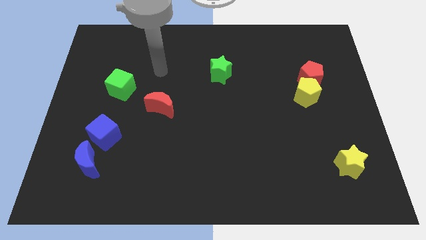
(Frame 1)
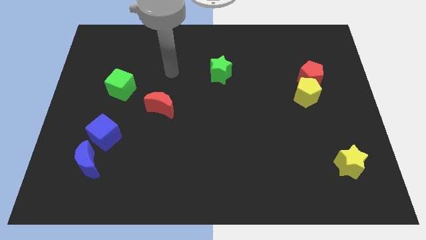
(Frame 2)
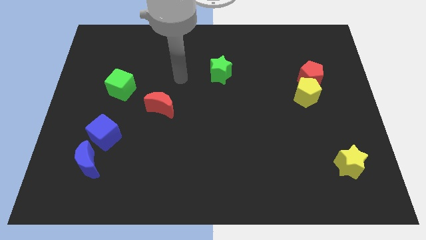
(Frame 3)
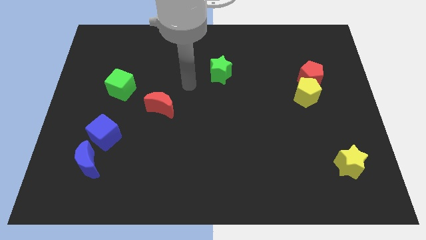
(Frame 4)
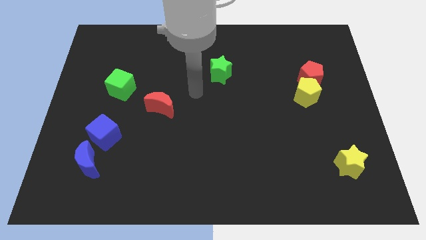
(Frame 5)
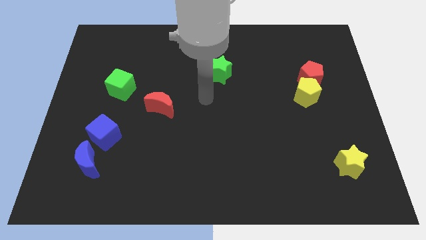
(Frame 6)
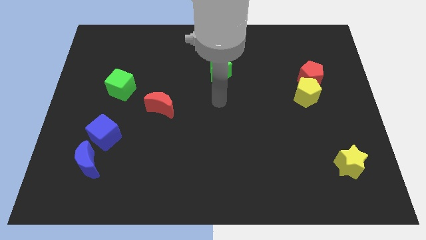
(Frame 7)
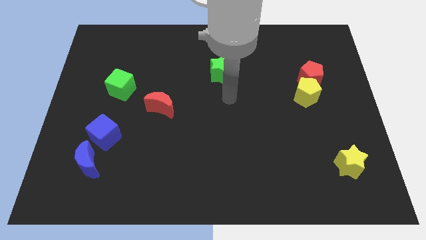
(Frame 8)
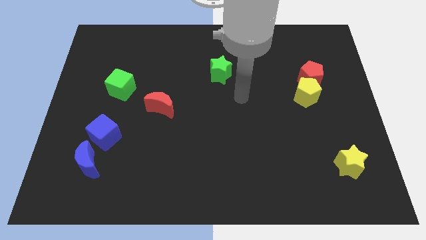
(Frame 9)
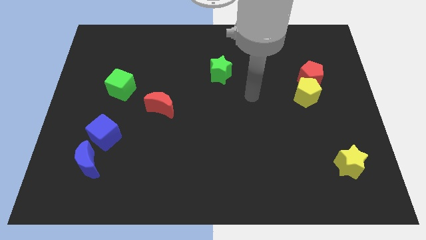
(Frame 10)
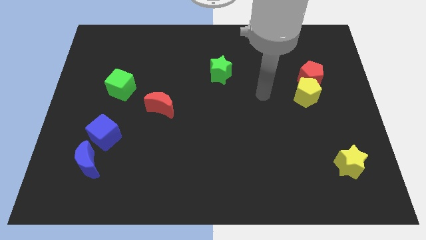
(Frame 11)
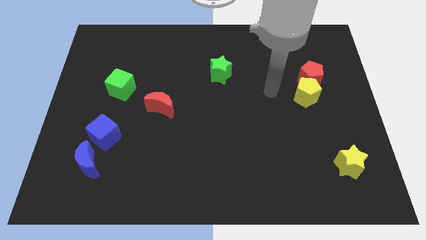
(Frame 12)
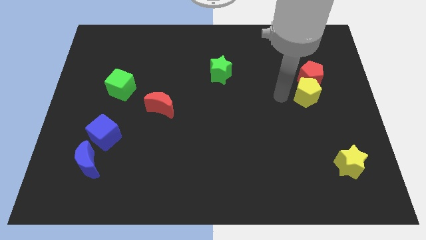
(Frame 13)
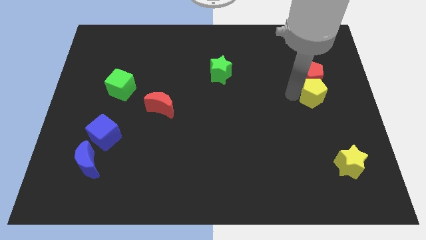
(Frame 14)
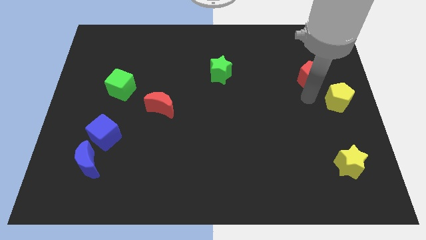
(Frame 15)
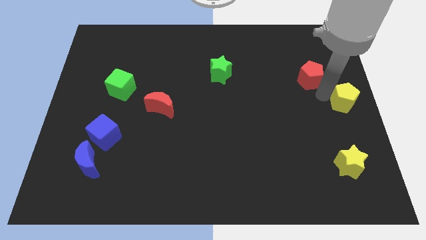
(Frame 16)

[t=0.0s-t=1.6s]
move the red pentagon away from the yellow pentagon

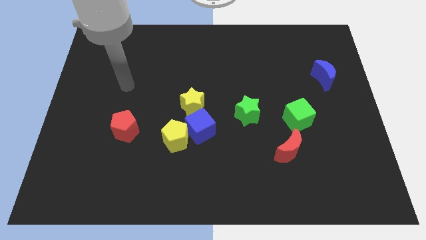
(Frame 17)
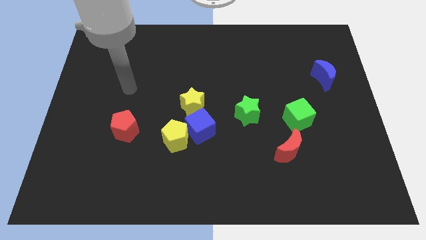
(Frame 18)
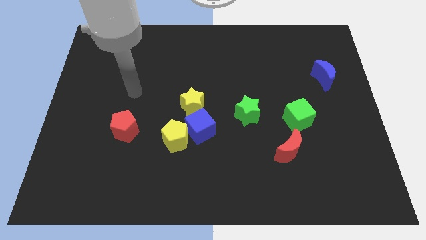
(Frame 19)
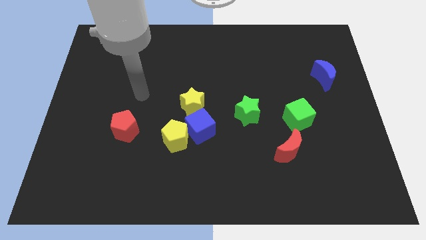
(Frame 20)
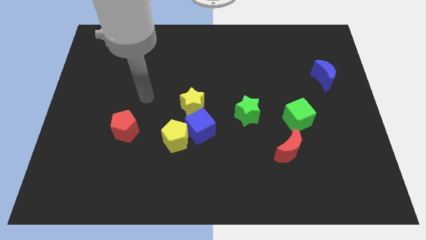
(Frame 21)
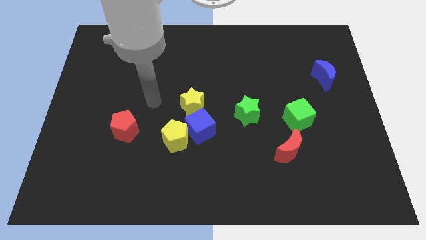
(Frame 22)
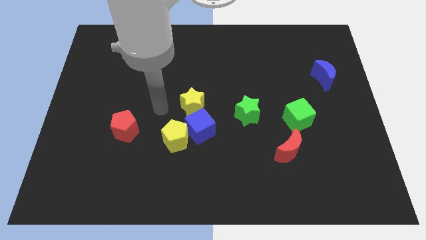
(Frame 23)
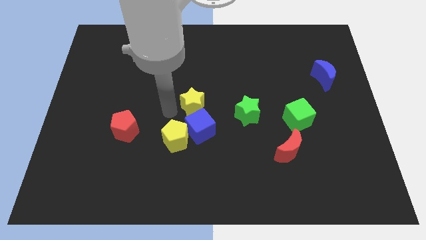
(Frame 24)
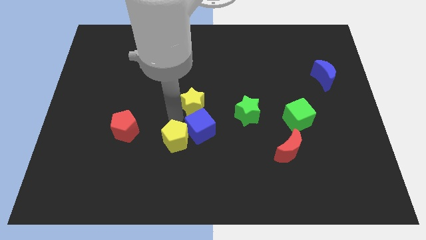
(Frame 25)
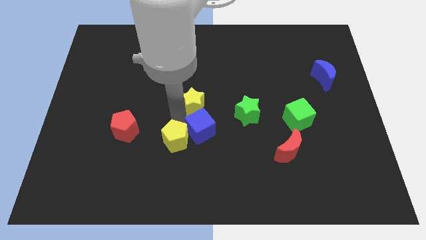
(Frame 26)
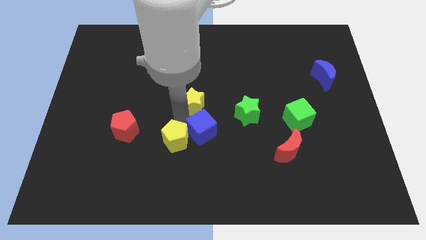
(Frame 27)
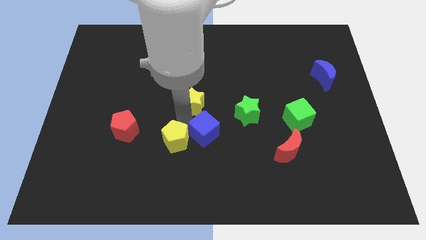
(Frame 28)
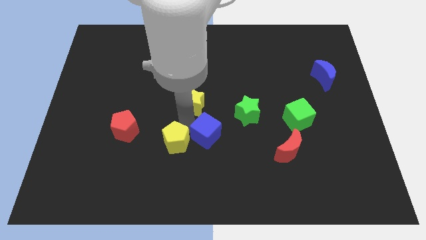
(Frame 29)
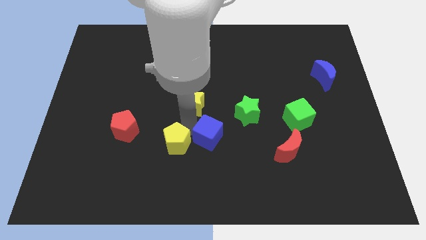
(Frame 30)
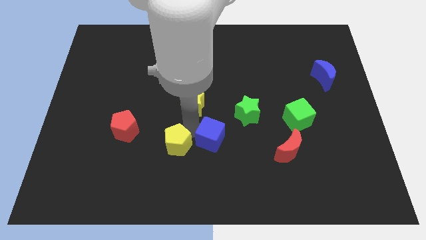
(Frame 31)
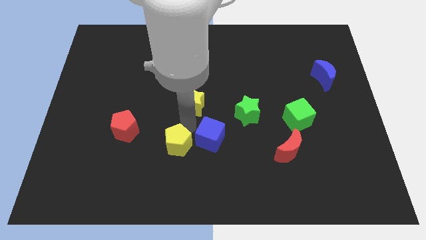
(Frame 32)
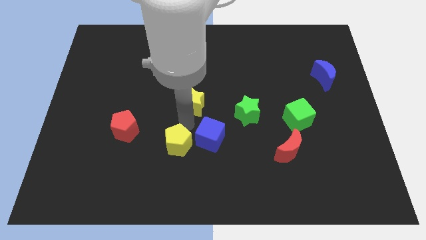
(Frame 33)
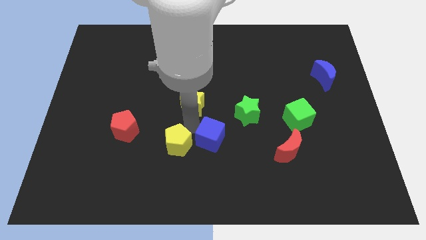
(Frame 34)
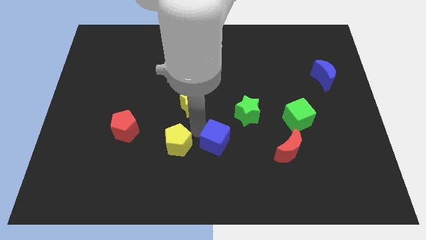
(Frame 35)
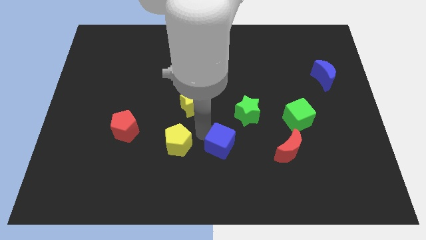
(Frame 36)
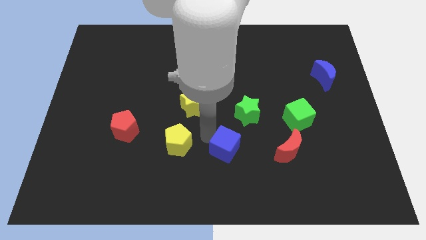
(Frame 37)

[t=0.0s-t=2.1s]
move the blue cube away from the yellow pentagon and yellow star

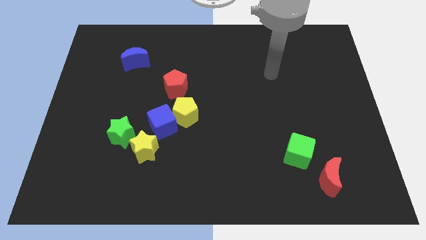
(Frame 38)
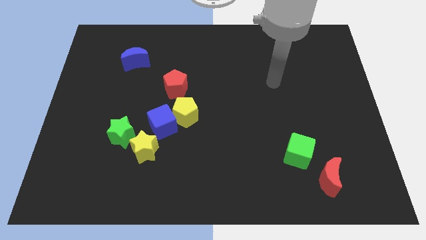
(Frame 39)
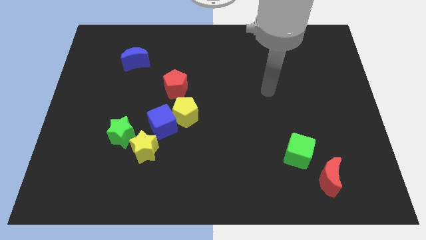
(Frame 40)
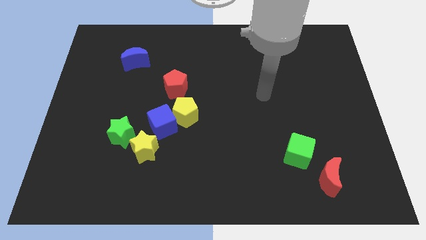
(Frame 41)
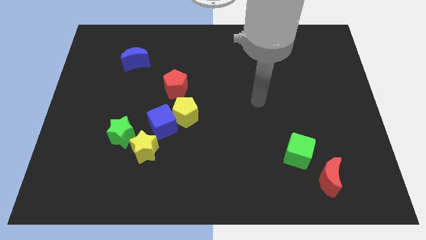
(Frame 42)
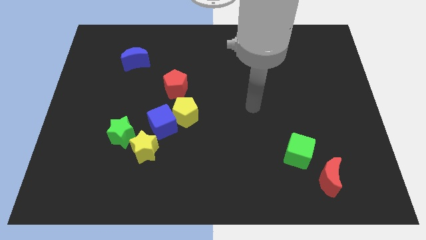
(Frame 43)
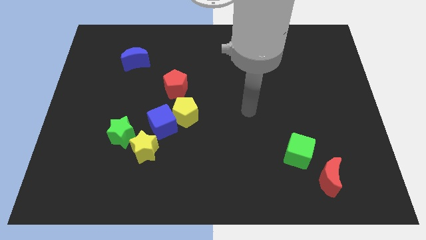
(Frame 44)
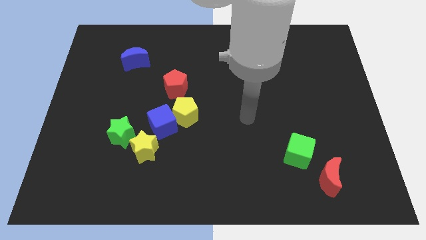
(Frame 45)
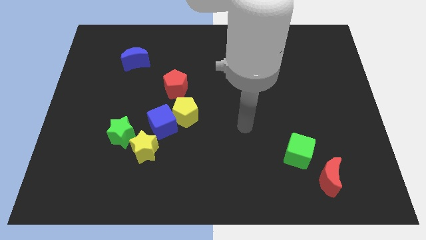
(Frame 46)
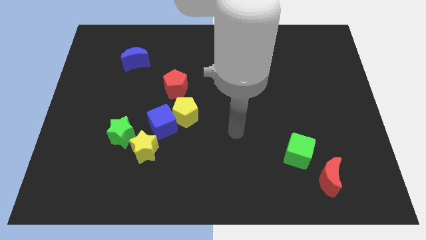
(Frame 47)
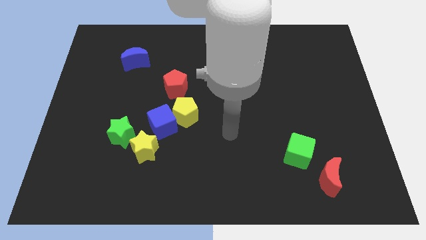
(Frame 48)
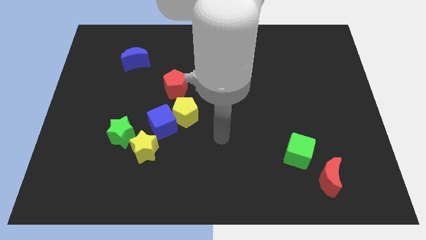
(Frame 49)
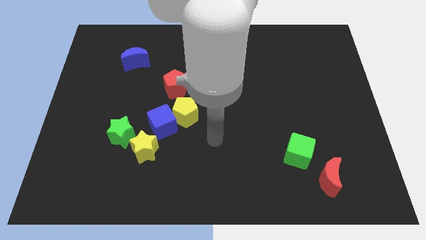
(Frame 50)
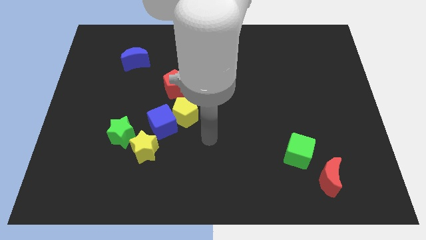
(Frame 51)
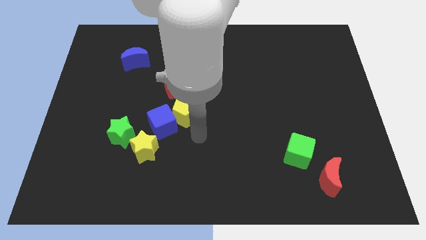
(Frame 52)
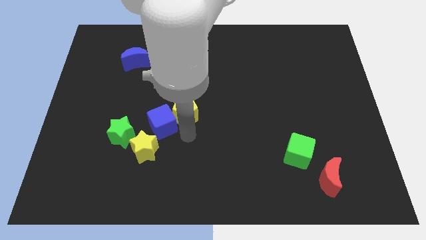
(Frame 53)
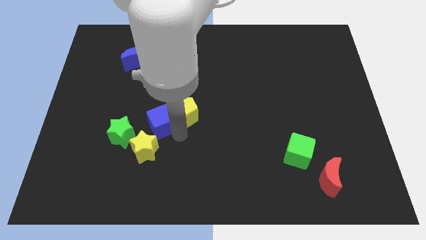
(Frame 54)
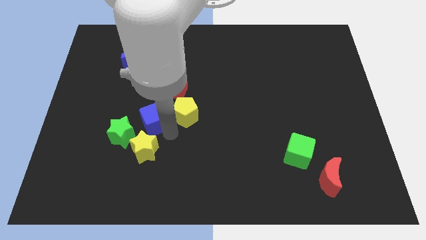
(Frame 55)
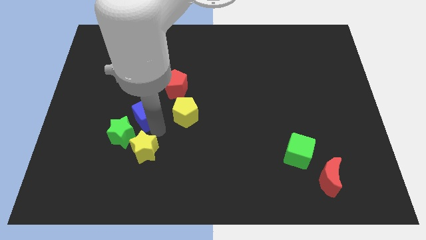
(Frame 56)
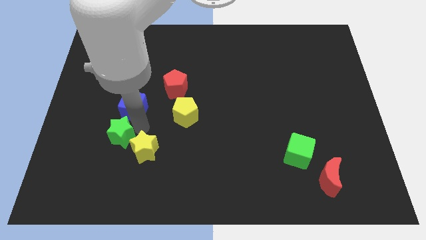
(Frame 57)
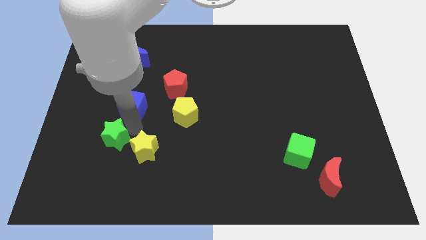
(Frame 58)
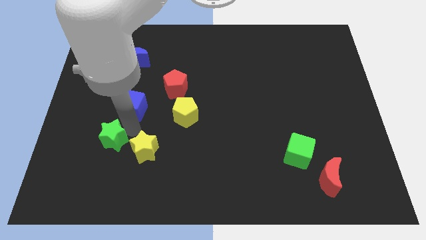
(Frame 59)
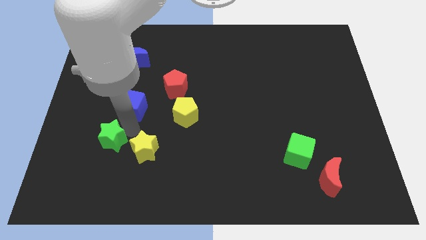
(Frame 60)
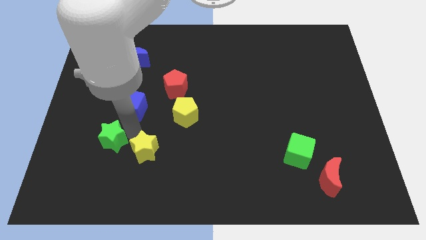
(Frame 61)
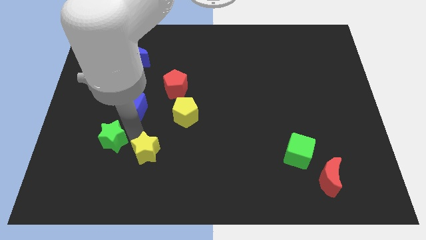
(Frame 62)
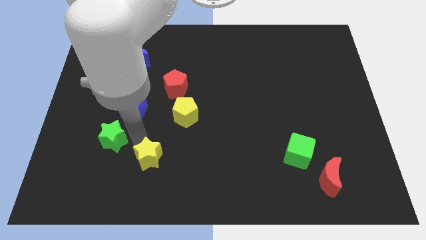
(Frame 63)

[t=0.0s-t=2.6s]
pull the yellow star apart from the green star and blue cube

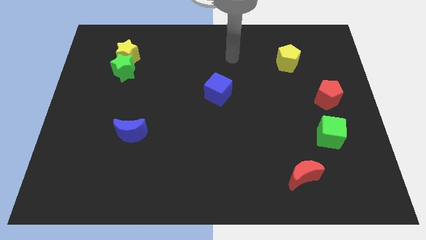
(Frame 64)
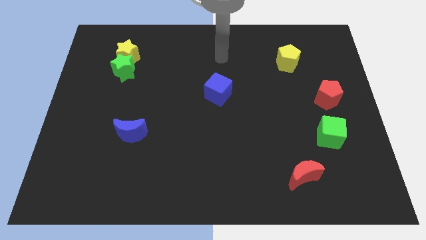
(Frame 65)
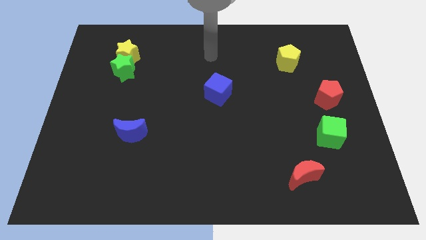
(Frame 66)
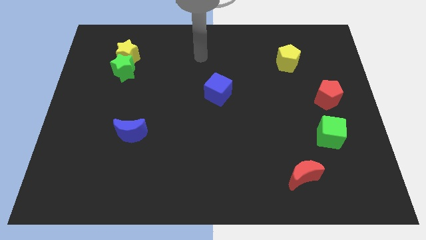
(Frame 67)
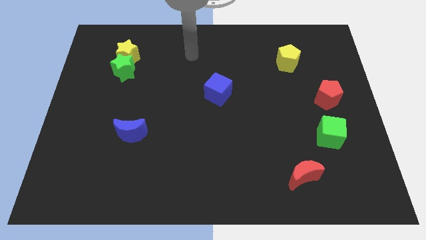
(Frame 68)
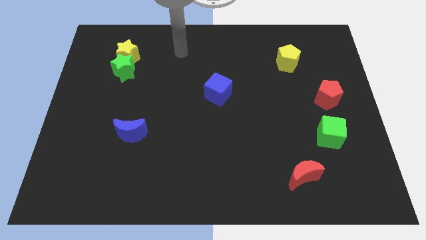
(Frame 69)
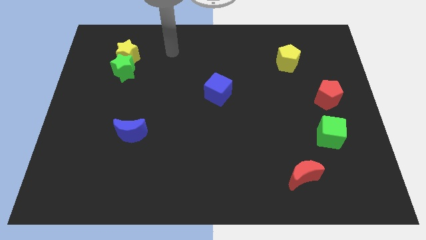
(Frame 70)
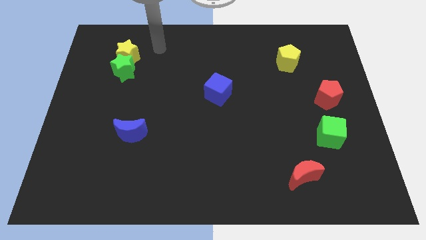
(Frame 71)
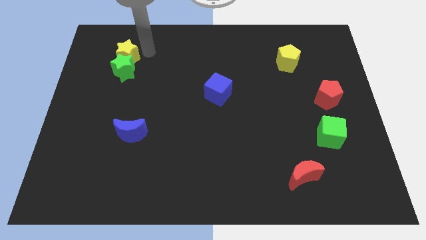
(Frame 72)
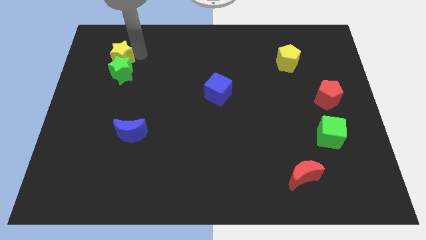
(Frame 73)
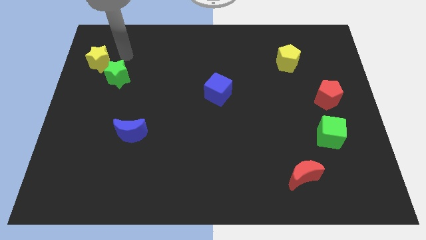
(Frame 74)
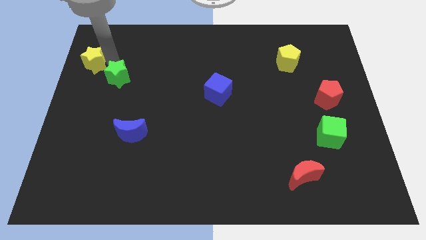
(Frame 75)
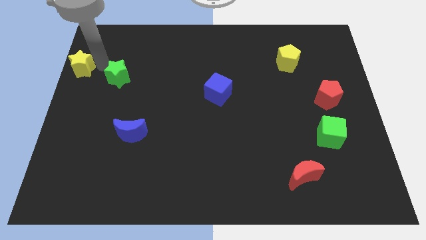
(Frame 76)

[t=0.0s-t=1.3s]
move the green star away from the yellow star

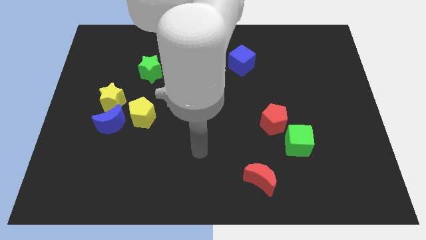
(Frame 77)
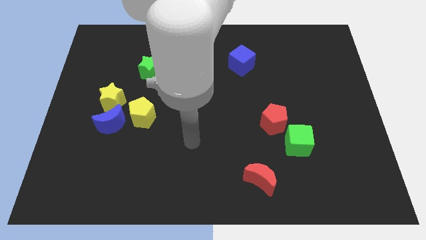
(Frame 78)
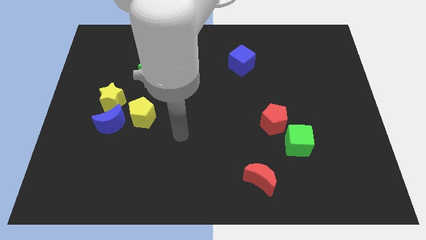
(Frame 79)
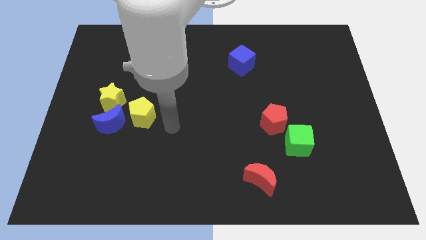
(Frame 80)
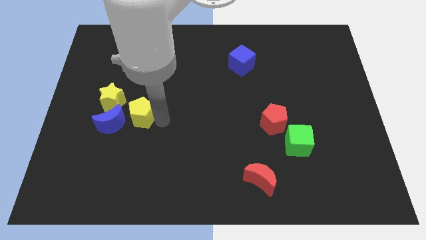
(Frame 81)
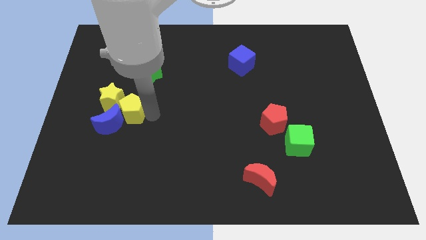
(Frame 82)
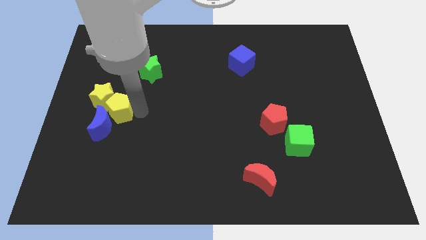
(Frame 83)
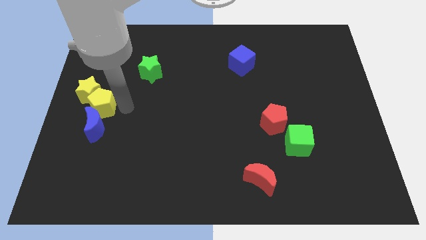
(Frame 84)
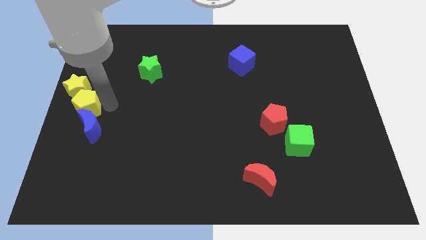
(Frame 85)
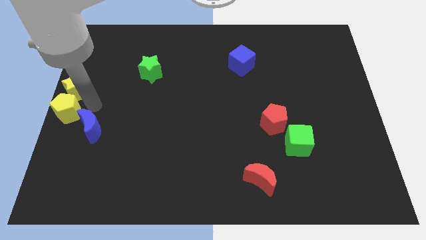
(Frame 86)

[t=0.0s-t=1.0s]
move the blue moon away from the yellow star and yellow pentagon

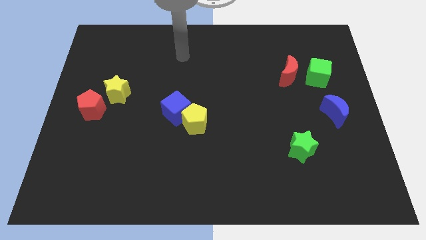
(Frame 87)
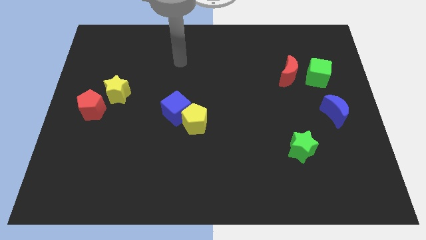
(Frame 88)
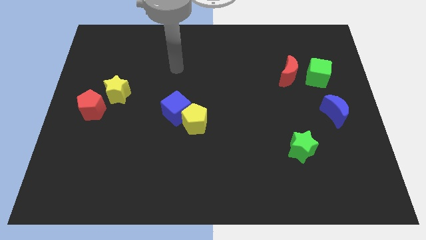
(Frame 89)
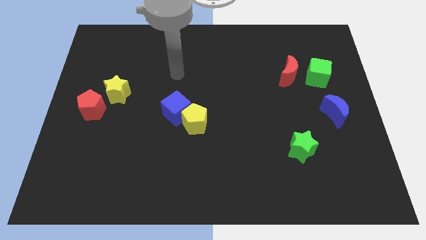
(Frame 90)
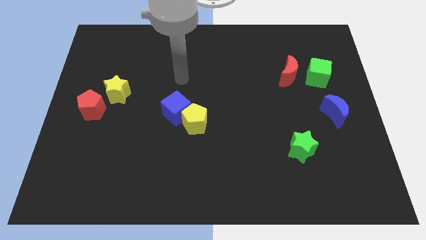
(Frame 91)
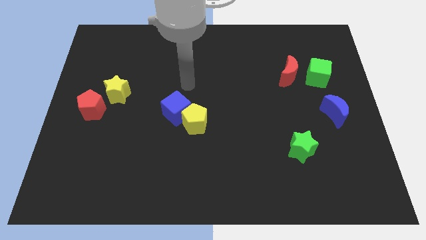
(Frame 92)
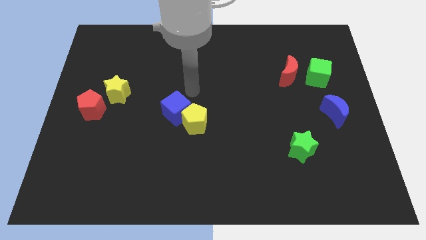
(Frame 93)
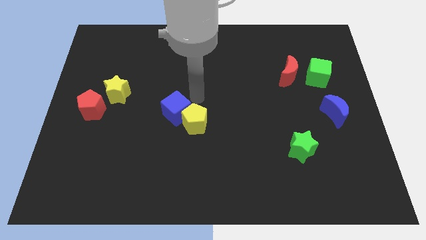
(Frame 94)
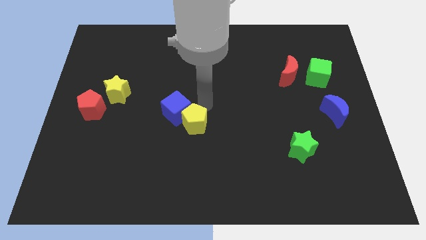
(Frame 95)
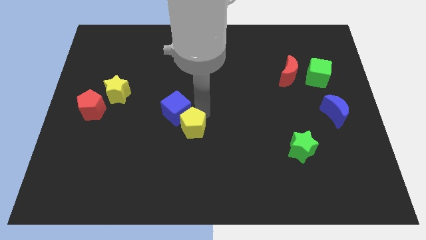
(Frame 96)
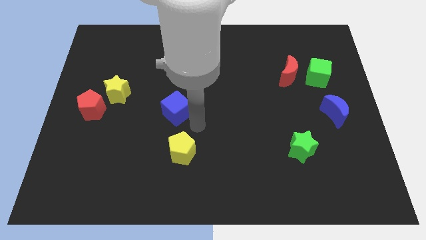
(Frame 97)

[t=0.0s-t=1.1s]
move the blue cube away from the yellow pentagon
